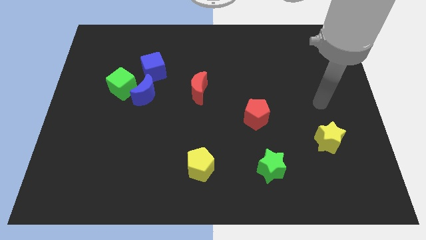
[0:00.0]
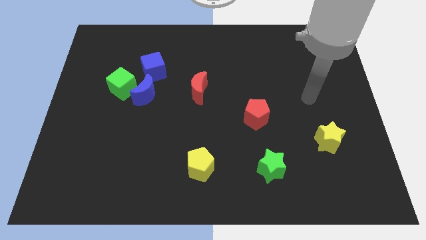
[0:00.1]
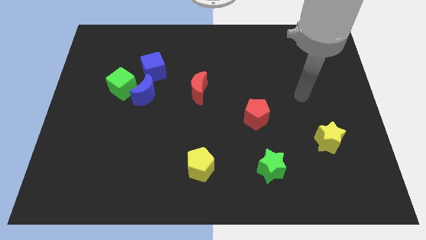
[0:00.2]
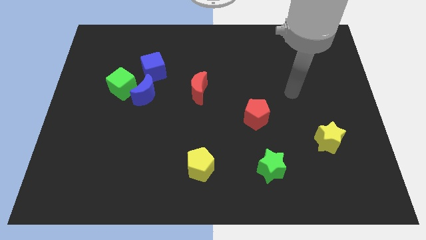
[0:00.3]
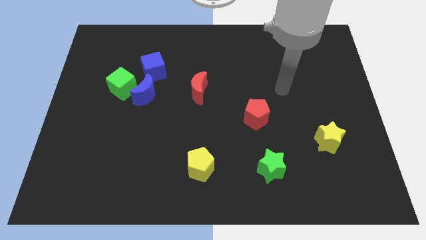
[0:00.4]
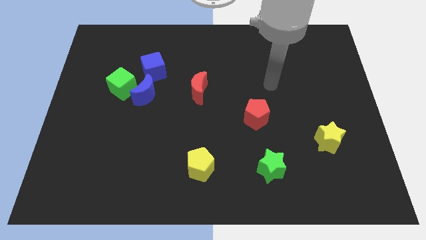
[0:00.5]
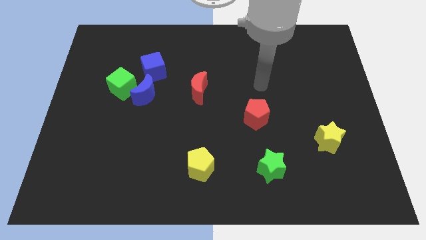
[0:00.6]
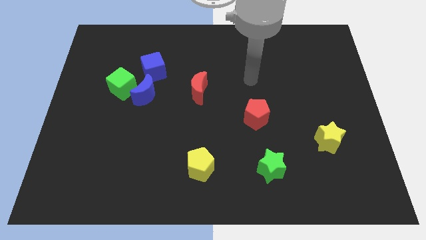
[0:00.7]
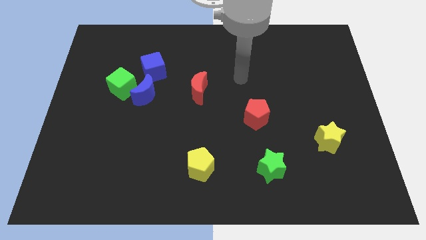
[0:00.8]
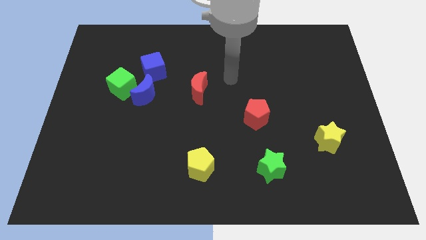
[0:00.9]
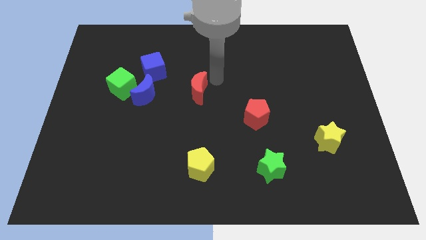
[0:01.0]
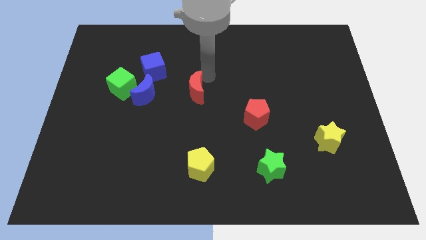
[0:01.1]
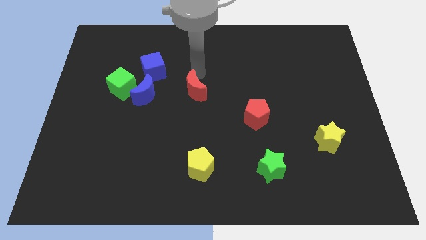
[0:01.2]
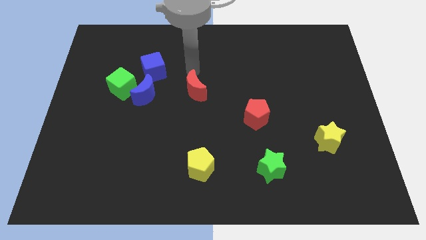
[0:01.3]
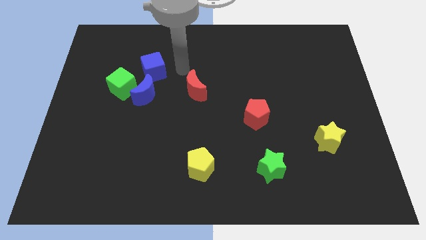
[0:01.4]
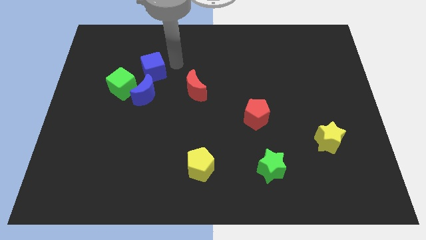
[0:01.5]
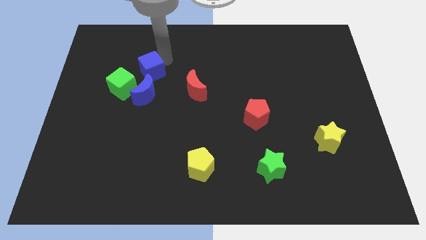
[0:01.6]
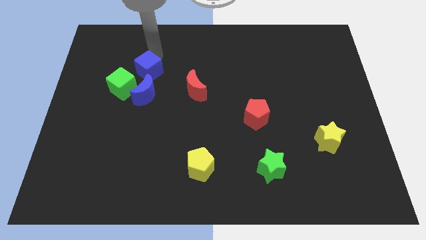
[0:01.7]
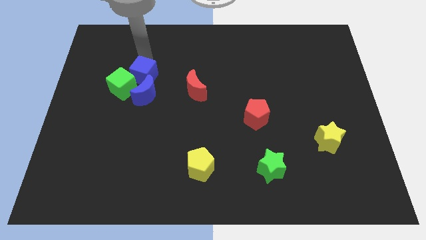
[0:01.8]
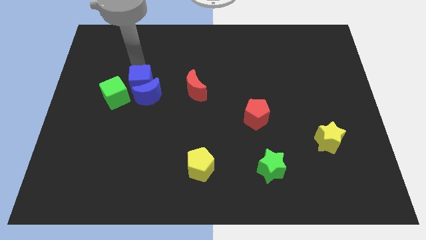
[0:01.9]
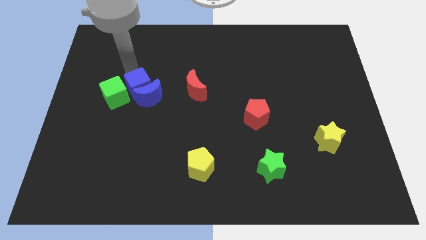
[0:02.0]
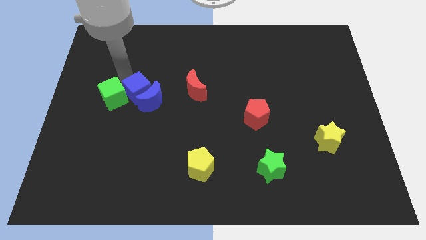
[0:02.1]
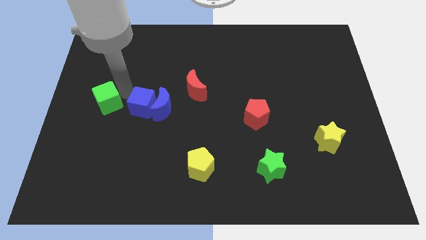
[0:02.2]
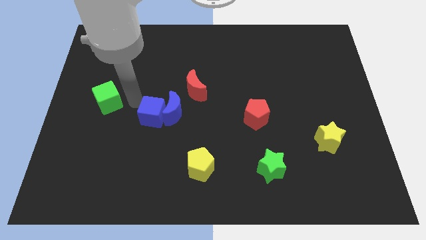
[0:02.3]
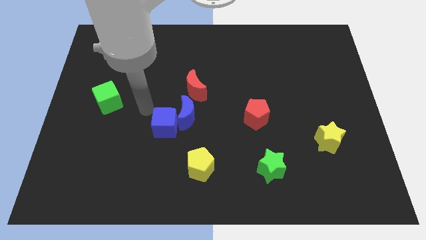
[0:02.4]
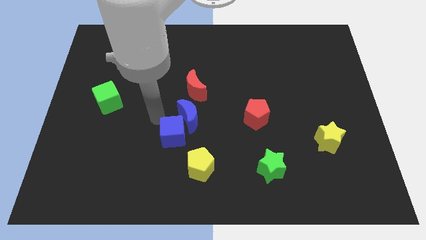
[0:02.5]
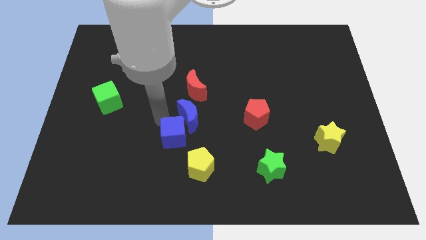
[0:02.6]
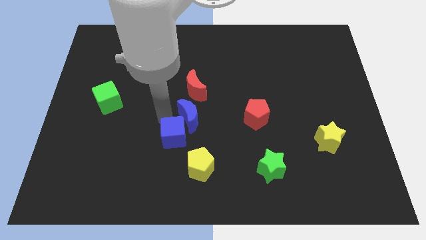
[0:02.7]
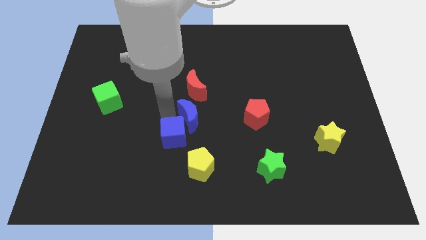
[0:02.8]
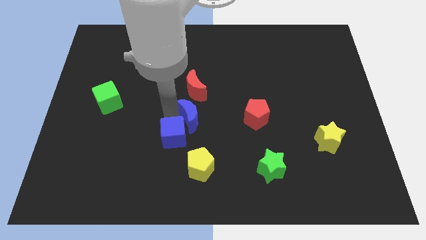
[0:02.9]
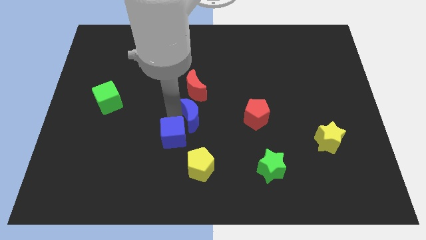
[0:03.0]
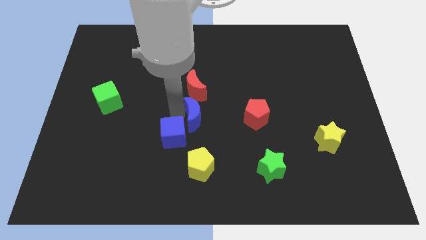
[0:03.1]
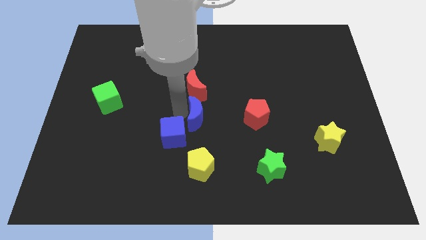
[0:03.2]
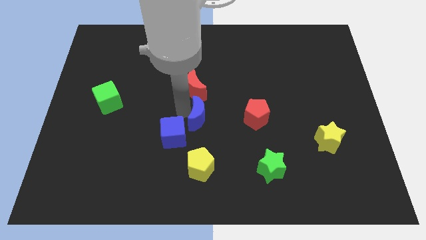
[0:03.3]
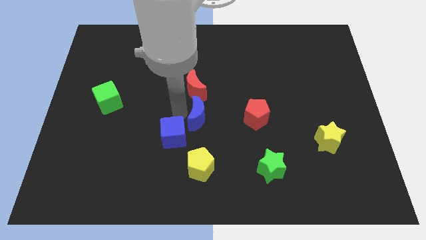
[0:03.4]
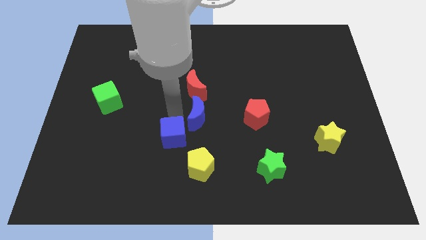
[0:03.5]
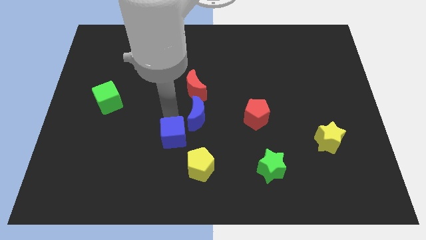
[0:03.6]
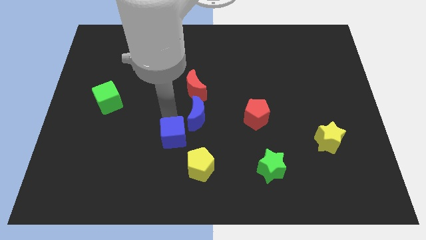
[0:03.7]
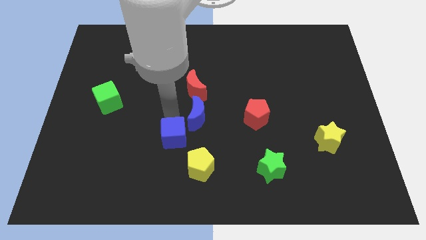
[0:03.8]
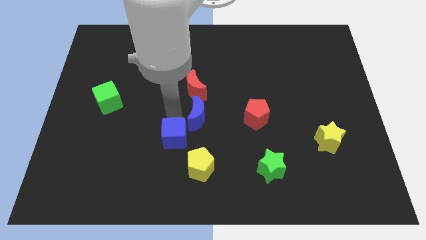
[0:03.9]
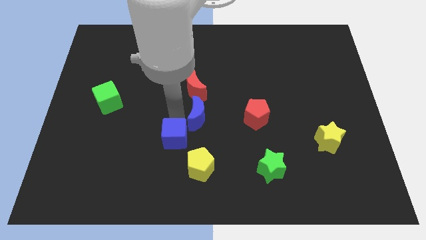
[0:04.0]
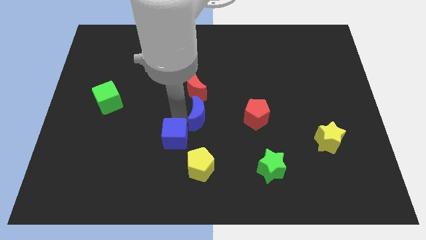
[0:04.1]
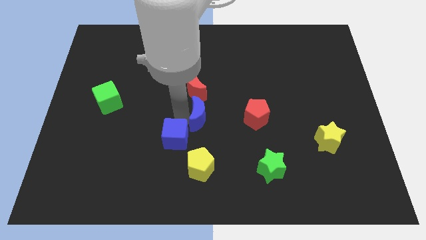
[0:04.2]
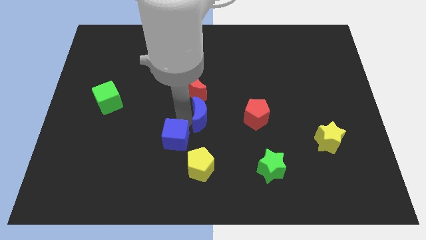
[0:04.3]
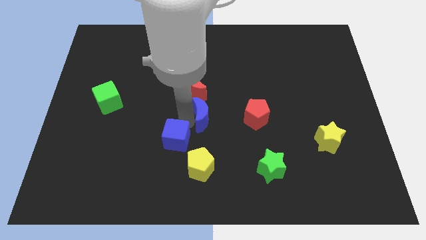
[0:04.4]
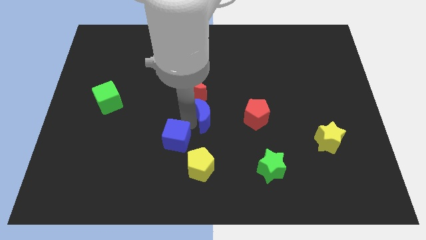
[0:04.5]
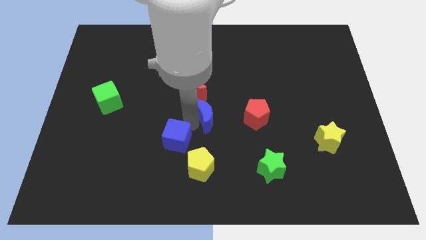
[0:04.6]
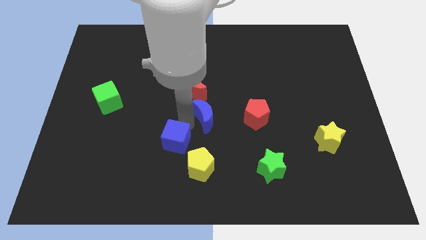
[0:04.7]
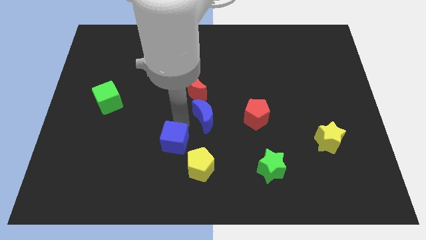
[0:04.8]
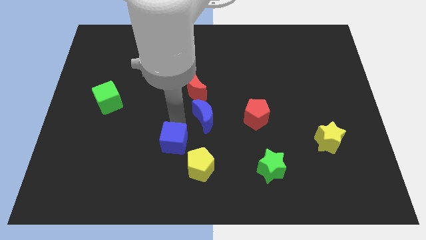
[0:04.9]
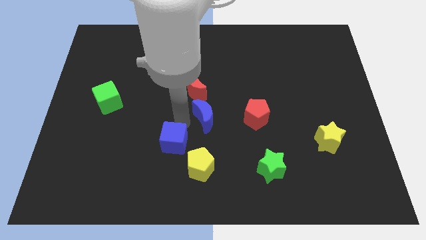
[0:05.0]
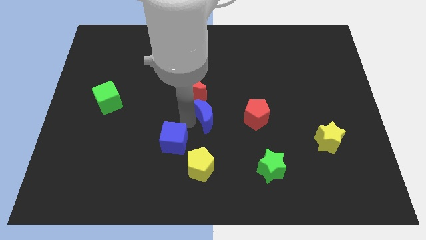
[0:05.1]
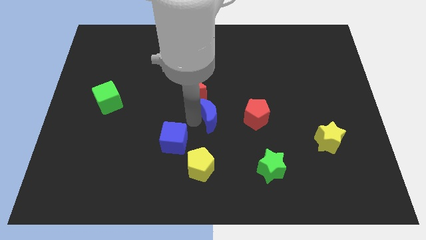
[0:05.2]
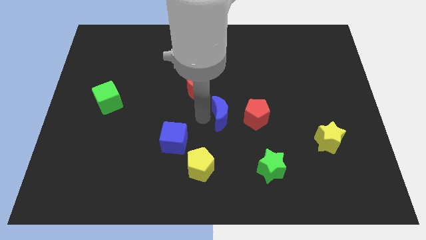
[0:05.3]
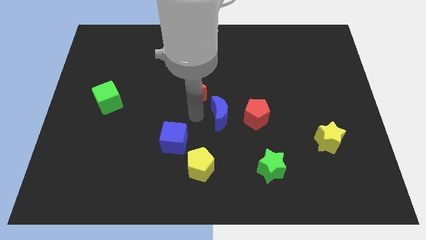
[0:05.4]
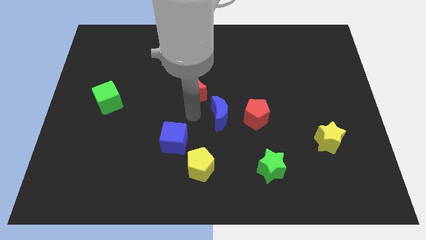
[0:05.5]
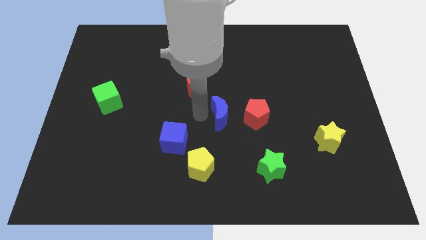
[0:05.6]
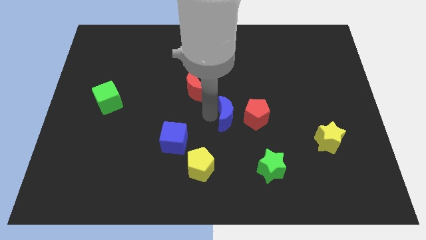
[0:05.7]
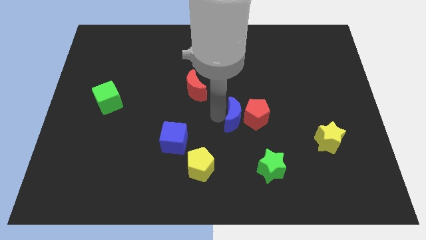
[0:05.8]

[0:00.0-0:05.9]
move the blue moon to the red pentagon

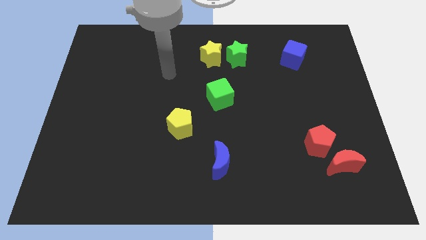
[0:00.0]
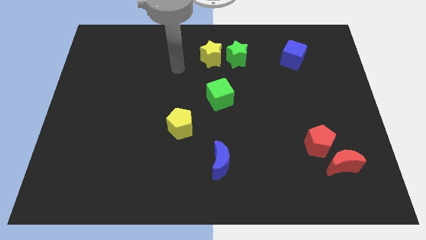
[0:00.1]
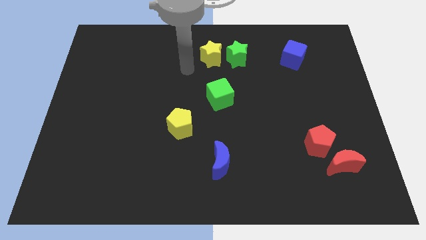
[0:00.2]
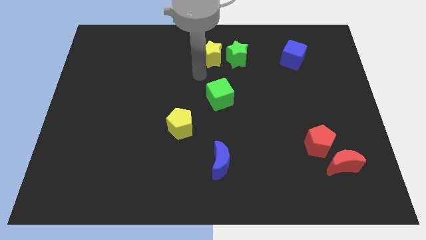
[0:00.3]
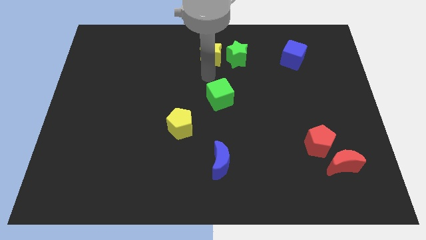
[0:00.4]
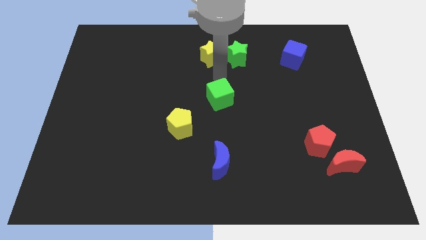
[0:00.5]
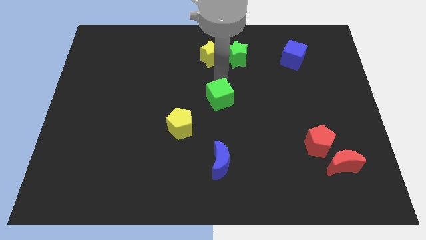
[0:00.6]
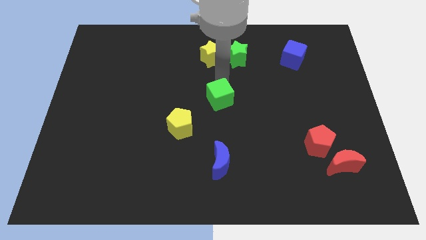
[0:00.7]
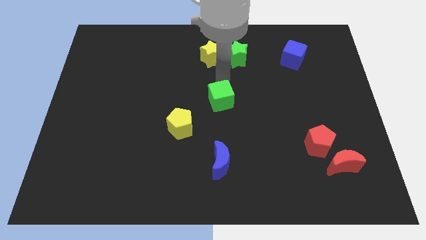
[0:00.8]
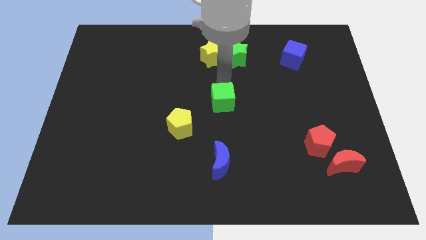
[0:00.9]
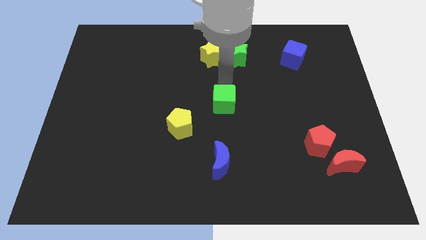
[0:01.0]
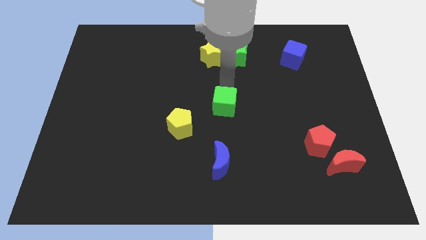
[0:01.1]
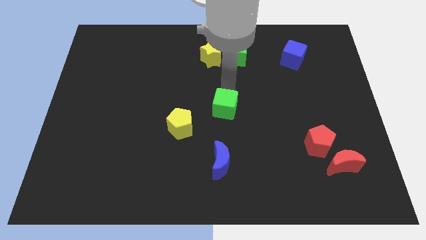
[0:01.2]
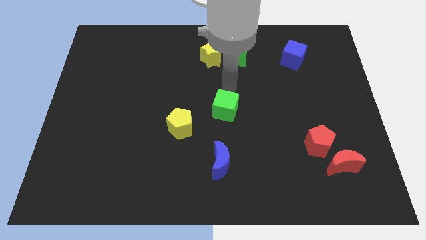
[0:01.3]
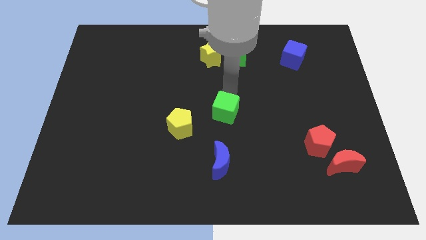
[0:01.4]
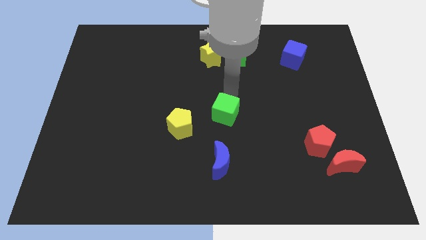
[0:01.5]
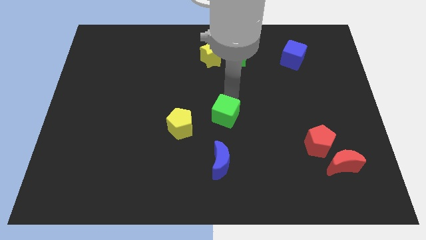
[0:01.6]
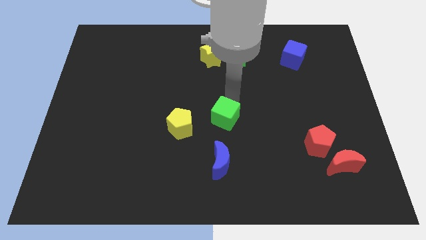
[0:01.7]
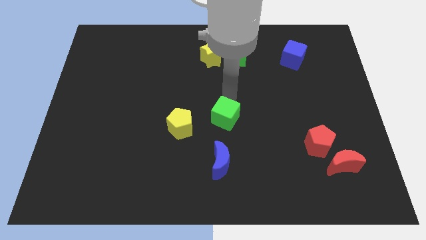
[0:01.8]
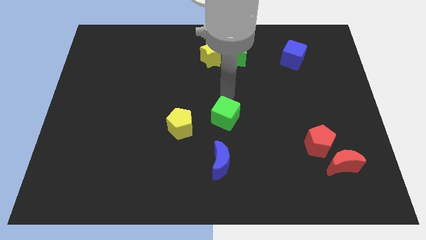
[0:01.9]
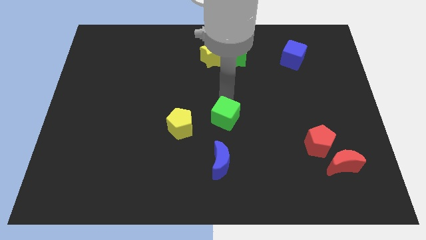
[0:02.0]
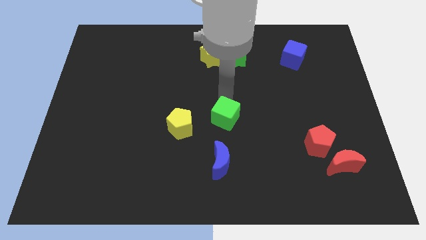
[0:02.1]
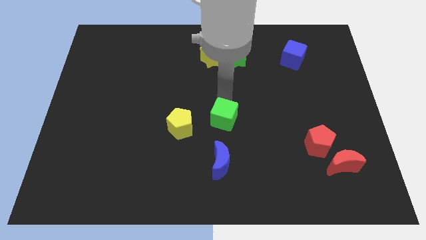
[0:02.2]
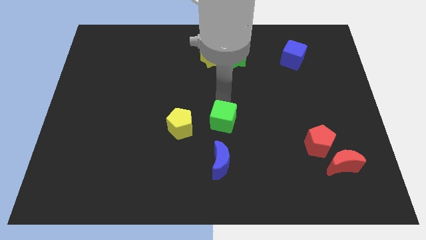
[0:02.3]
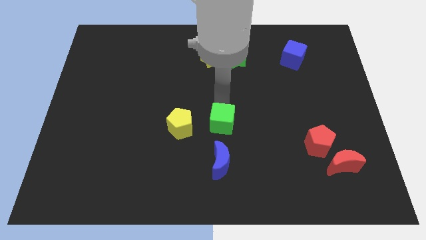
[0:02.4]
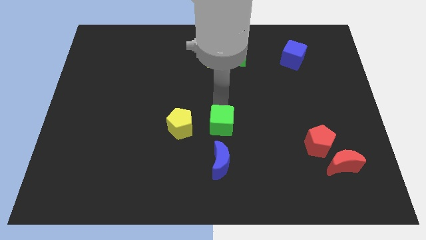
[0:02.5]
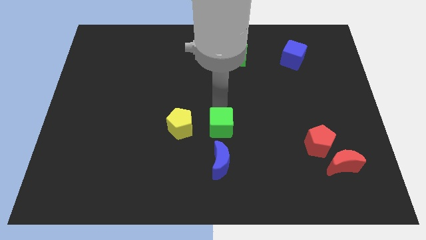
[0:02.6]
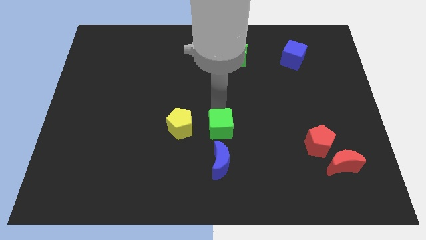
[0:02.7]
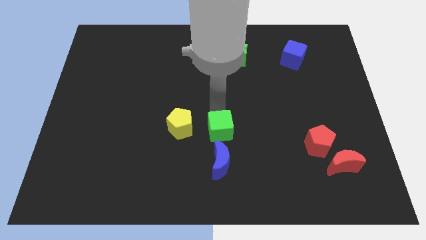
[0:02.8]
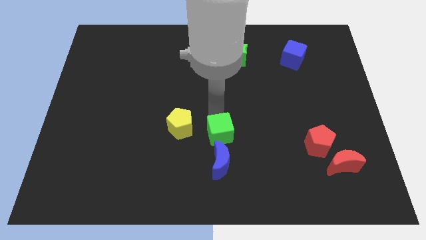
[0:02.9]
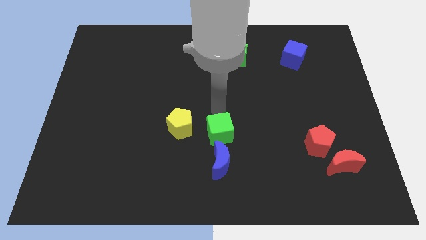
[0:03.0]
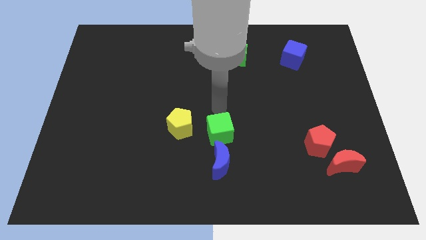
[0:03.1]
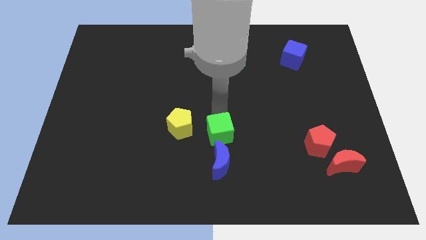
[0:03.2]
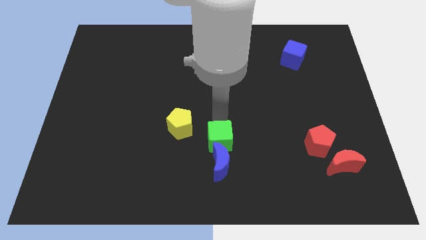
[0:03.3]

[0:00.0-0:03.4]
move the green cube towards the blue moon
